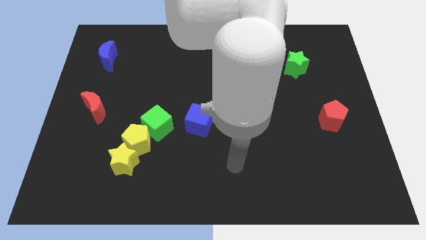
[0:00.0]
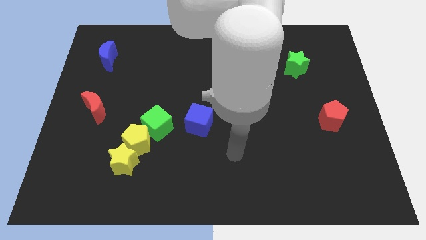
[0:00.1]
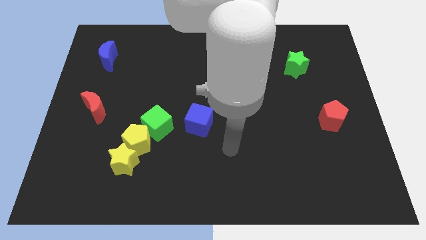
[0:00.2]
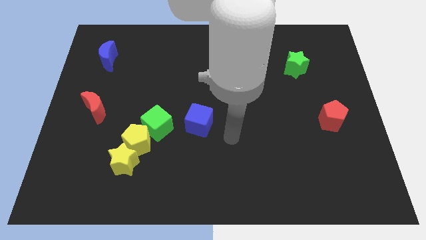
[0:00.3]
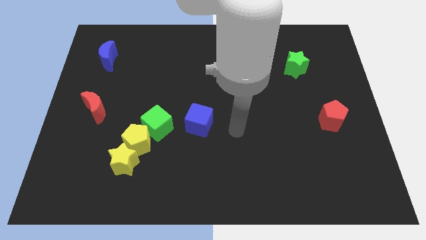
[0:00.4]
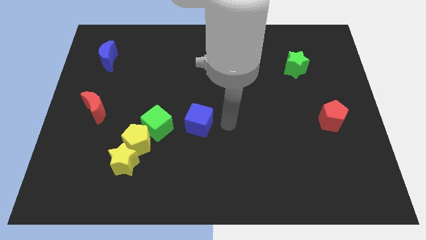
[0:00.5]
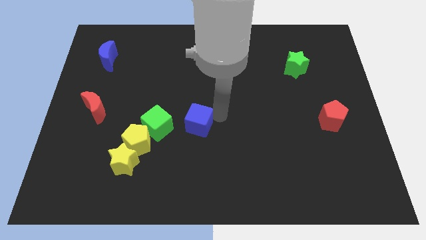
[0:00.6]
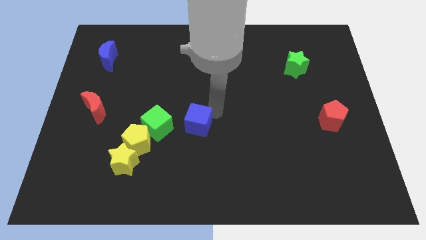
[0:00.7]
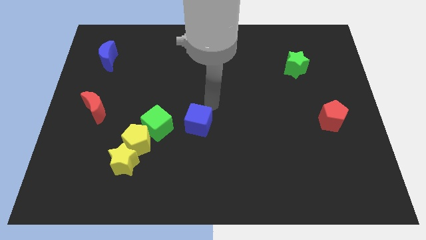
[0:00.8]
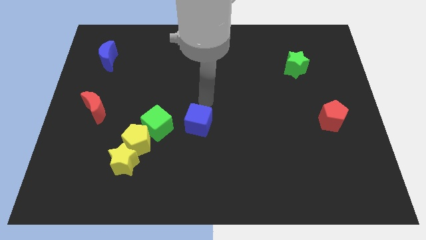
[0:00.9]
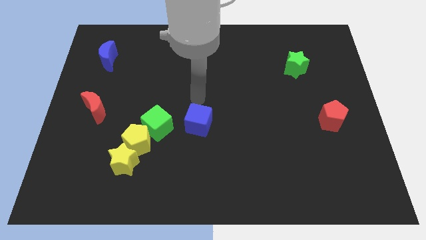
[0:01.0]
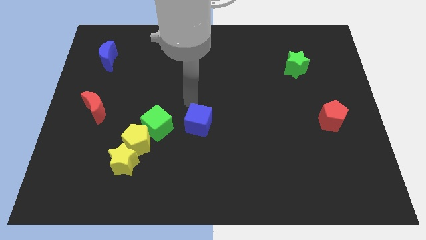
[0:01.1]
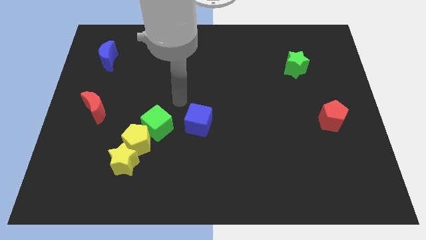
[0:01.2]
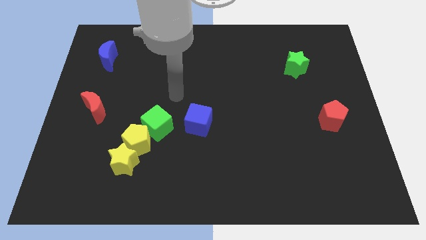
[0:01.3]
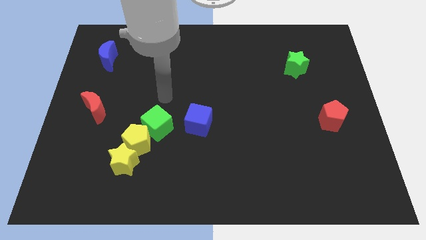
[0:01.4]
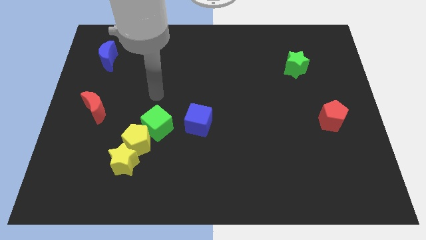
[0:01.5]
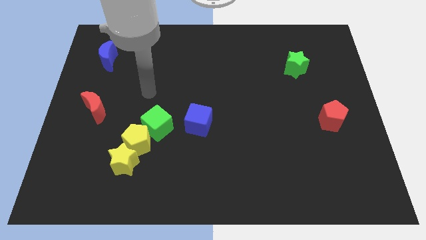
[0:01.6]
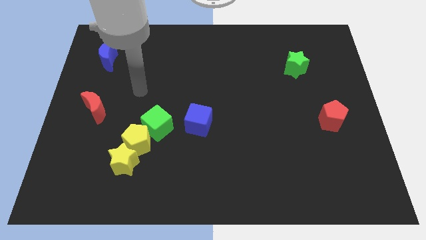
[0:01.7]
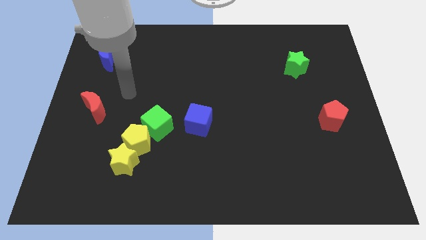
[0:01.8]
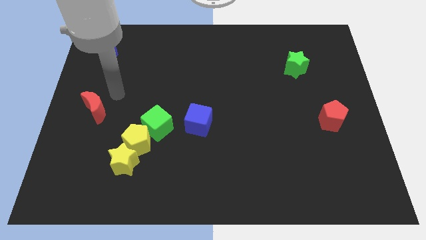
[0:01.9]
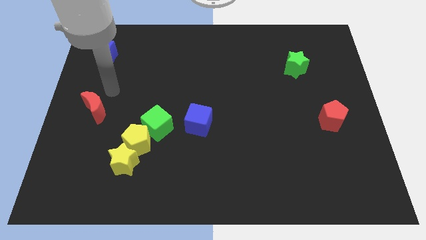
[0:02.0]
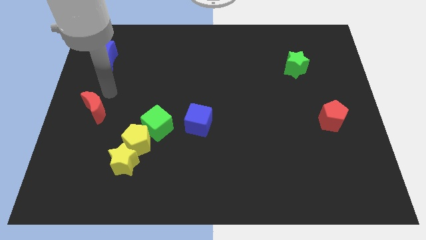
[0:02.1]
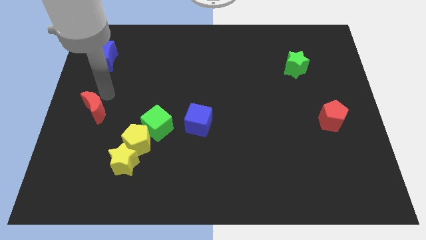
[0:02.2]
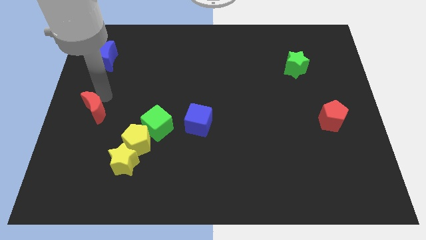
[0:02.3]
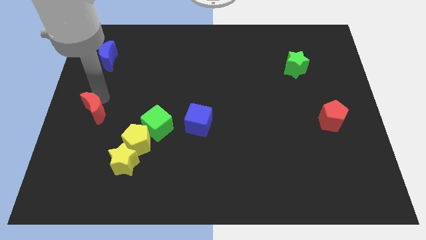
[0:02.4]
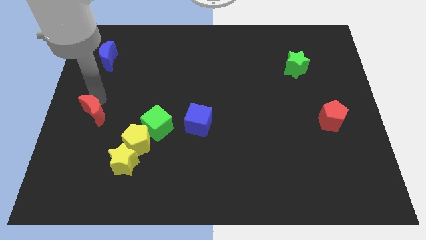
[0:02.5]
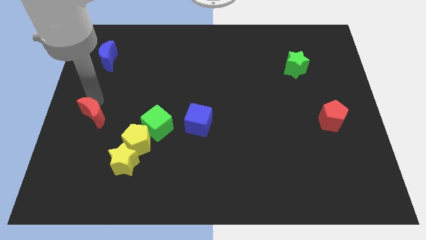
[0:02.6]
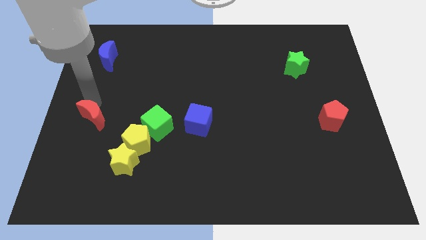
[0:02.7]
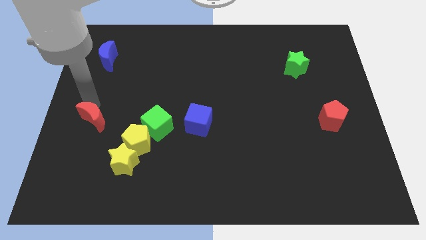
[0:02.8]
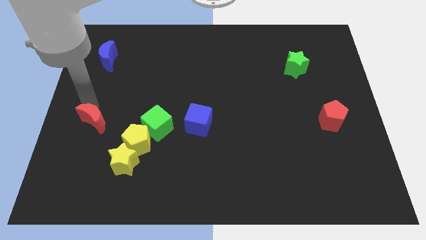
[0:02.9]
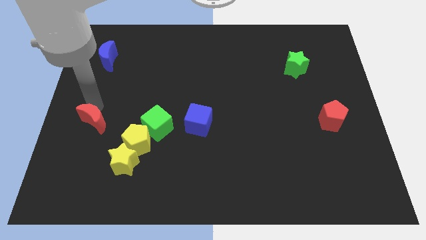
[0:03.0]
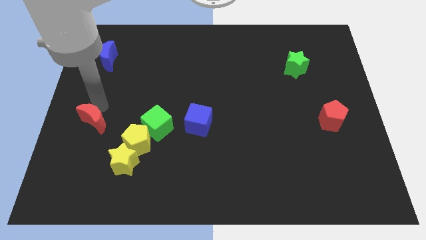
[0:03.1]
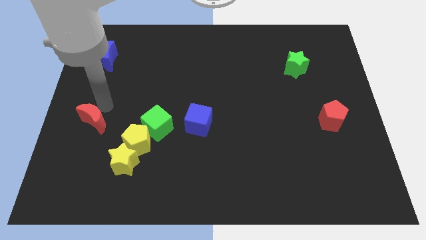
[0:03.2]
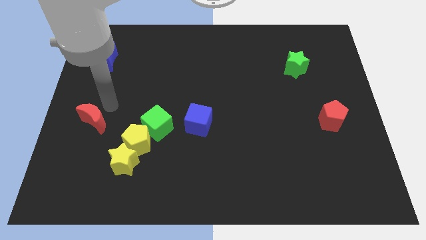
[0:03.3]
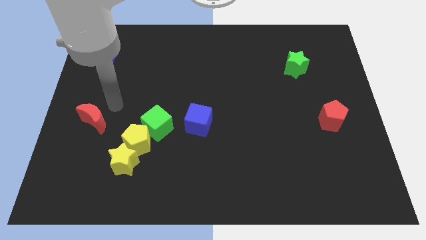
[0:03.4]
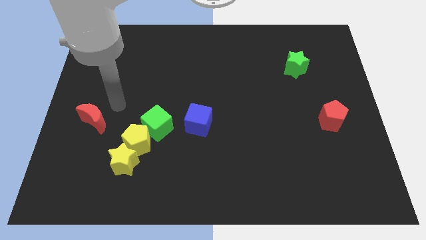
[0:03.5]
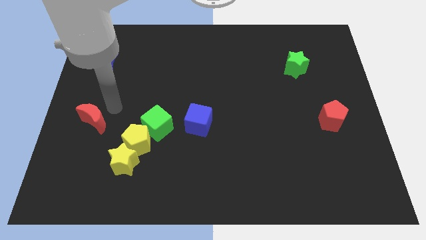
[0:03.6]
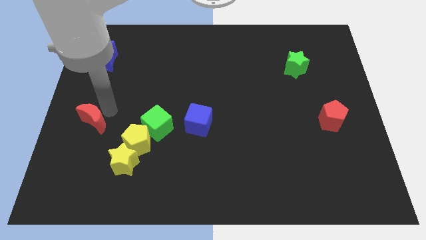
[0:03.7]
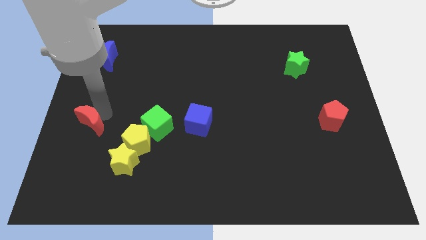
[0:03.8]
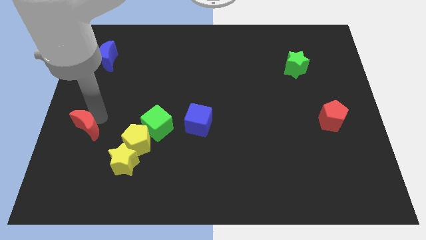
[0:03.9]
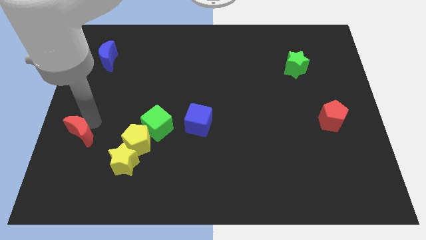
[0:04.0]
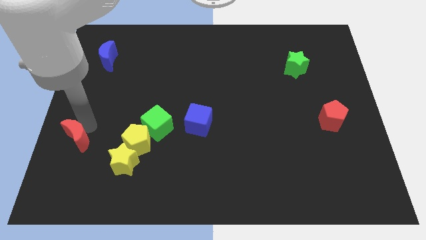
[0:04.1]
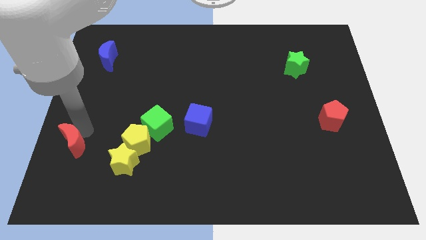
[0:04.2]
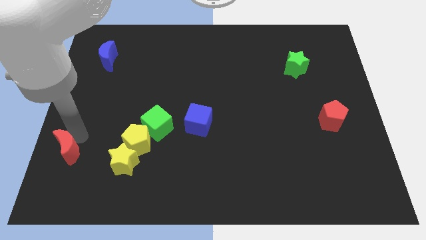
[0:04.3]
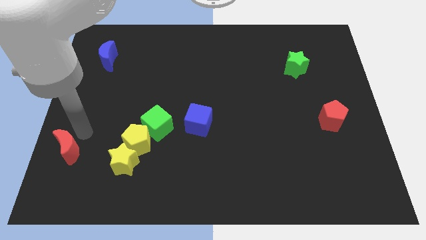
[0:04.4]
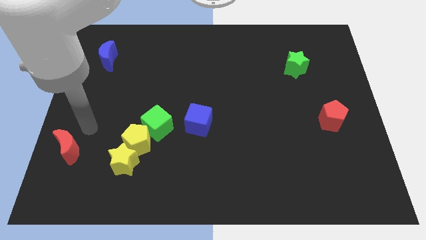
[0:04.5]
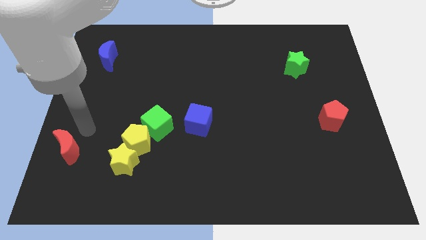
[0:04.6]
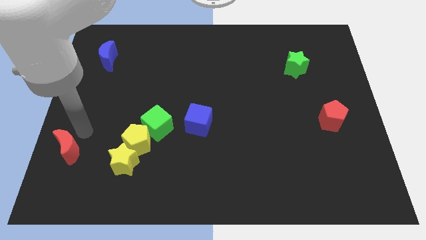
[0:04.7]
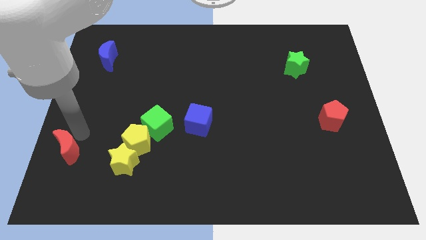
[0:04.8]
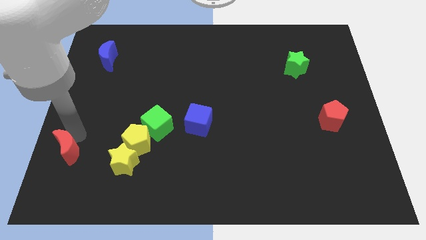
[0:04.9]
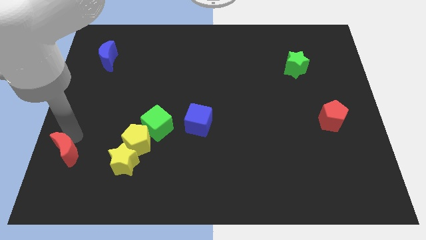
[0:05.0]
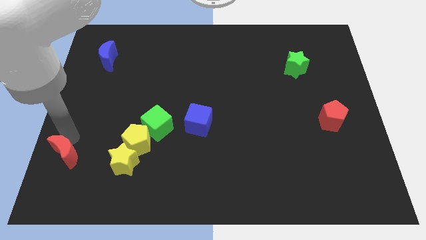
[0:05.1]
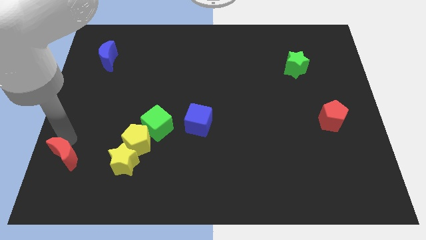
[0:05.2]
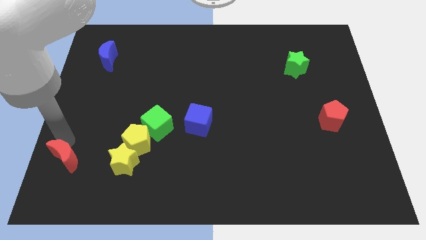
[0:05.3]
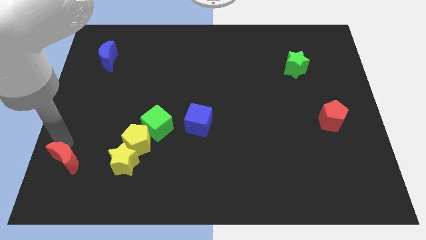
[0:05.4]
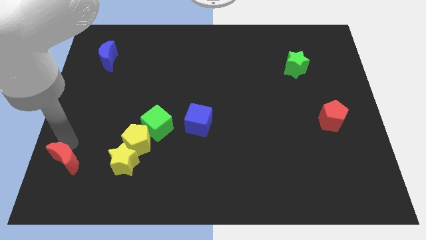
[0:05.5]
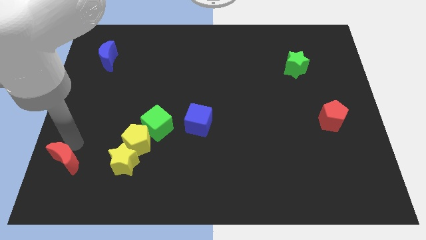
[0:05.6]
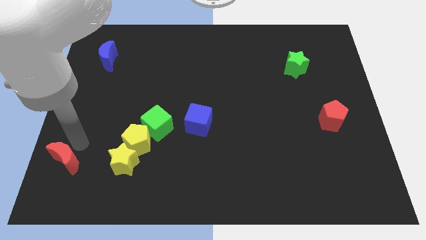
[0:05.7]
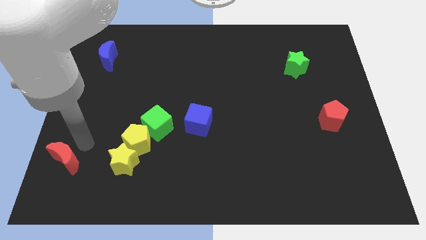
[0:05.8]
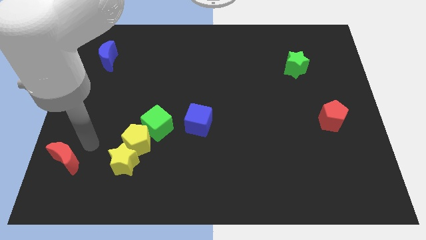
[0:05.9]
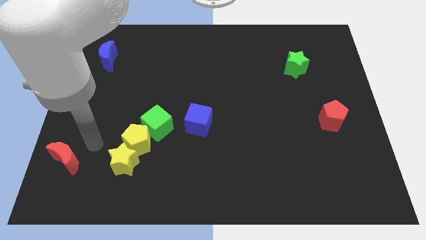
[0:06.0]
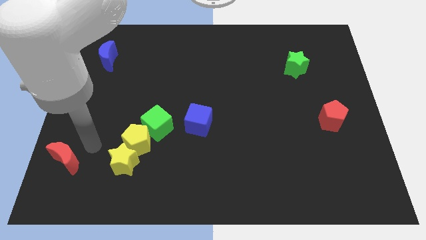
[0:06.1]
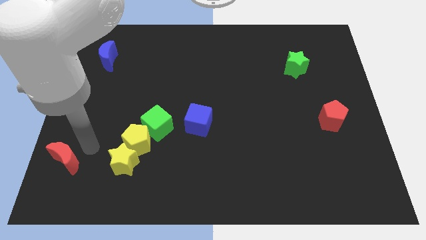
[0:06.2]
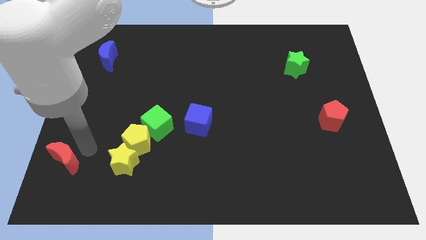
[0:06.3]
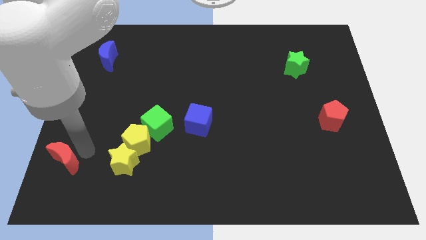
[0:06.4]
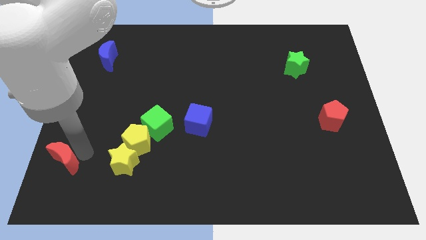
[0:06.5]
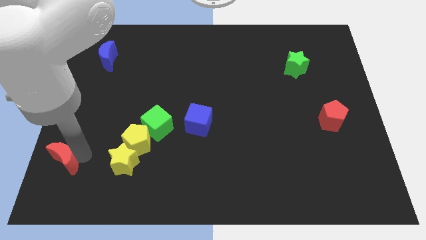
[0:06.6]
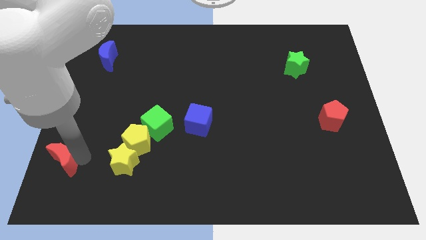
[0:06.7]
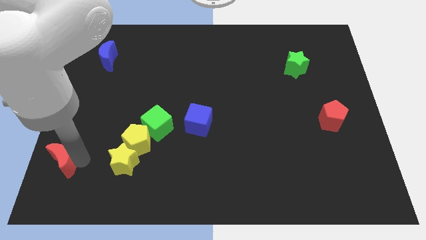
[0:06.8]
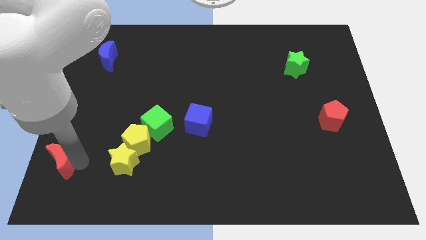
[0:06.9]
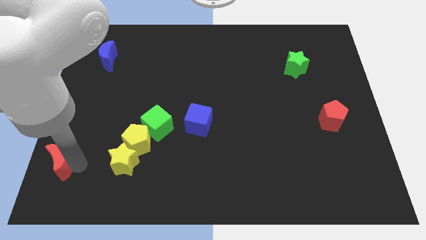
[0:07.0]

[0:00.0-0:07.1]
push the red moon to the bottom left corner
